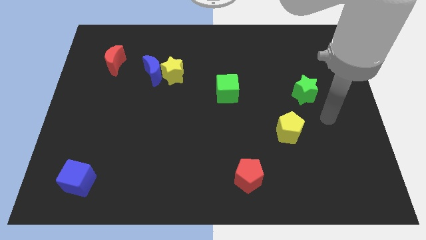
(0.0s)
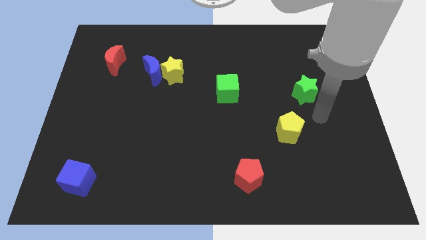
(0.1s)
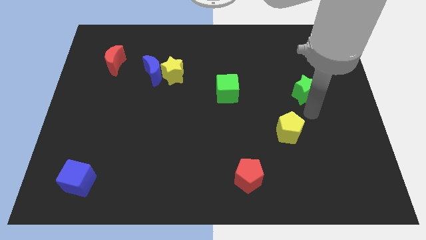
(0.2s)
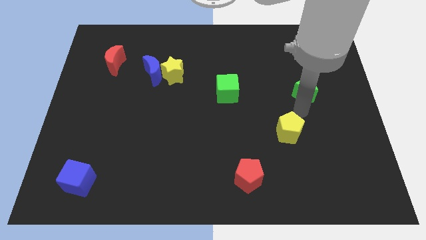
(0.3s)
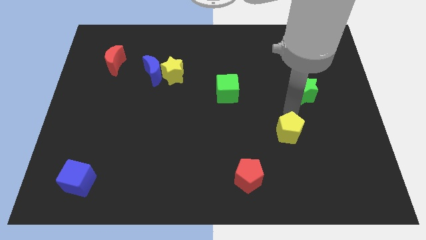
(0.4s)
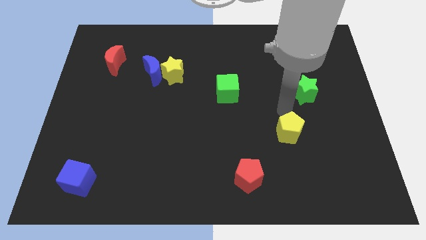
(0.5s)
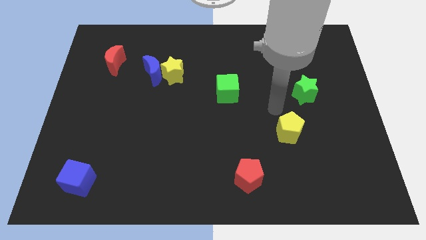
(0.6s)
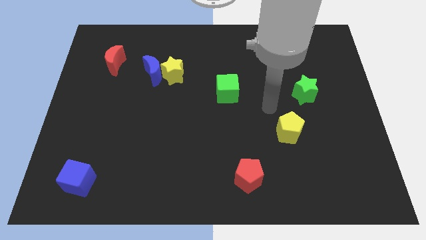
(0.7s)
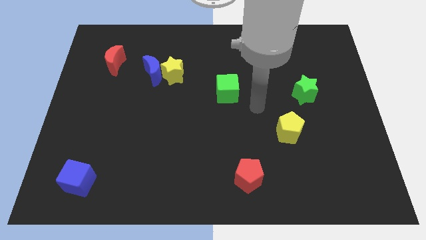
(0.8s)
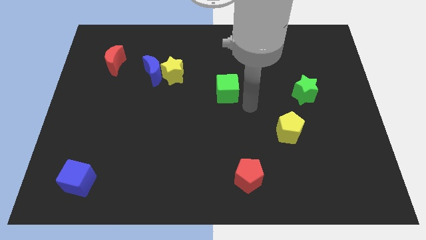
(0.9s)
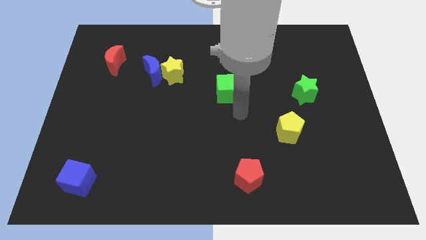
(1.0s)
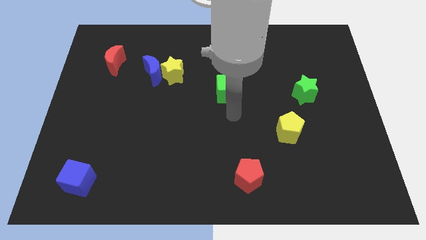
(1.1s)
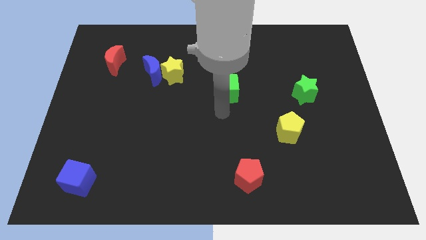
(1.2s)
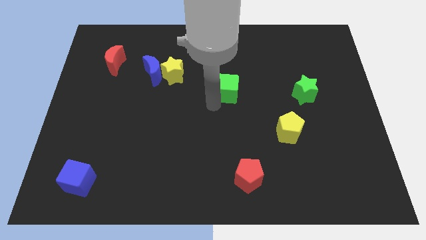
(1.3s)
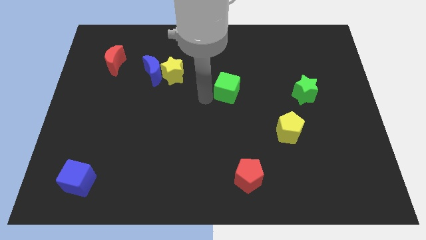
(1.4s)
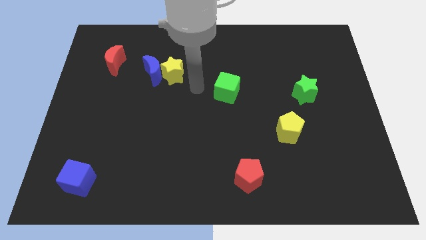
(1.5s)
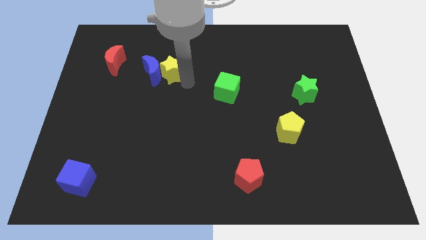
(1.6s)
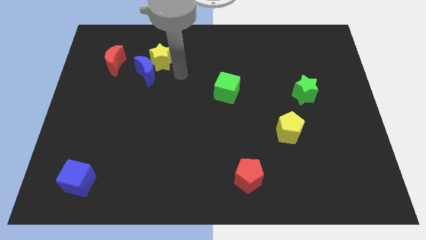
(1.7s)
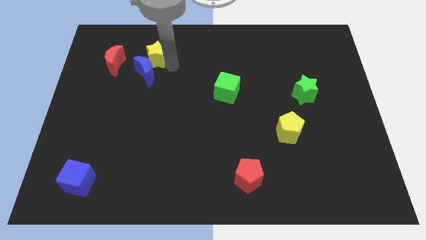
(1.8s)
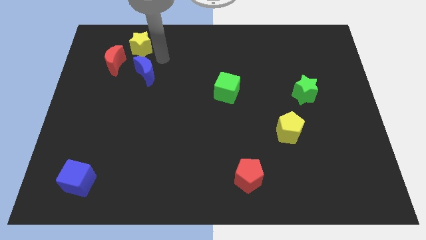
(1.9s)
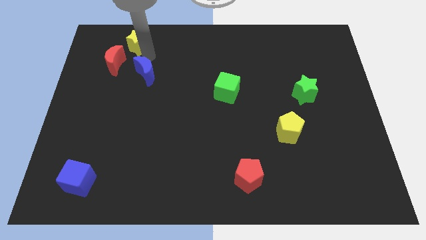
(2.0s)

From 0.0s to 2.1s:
move the blue moon away from the yellow star

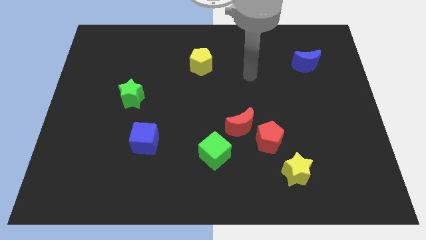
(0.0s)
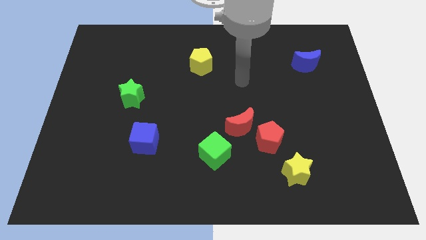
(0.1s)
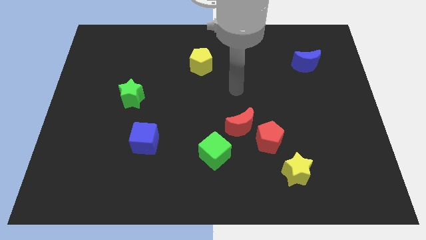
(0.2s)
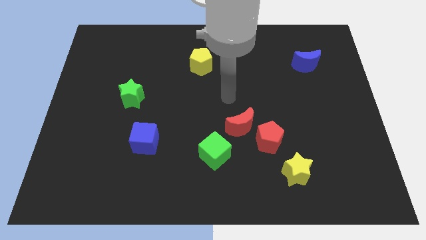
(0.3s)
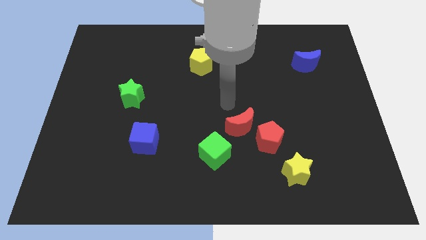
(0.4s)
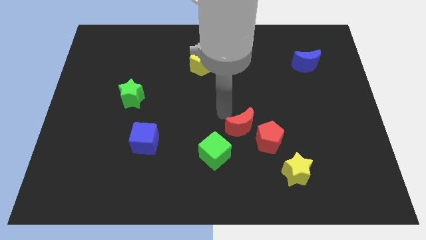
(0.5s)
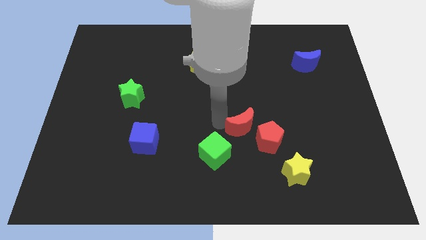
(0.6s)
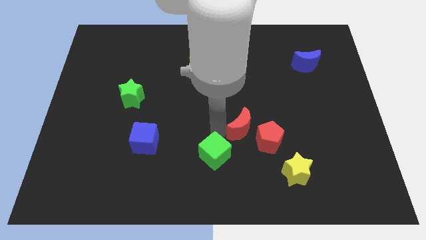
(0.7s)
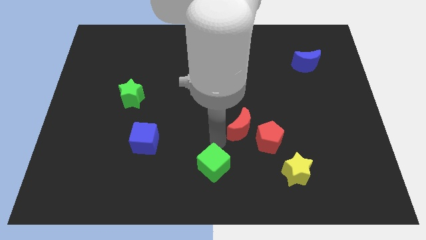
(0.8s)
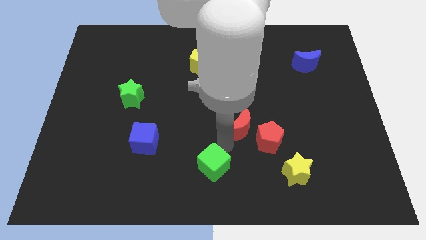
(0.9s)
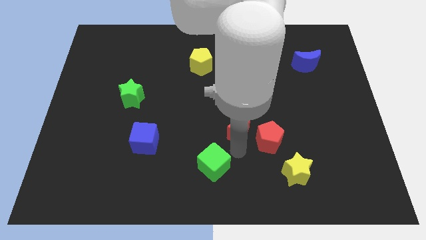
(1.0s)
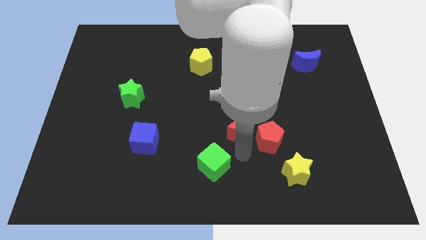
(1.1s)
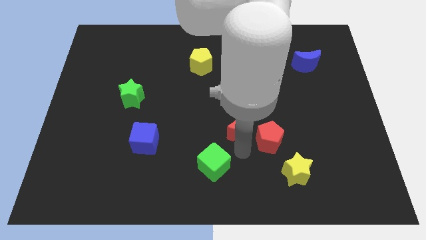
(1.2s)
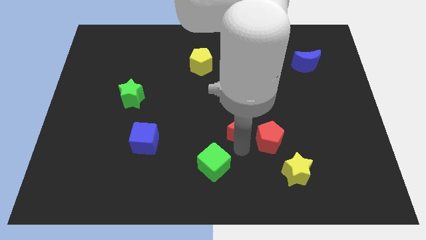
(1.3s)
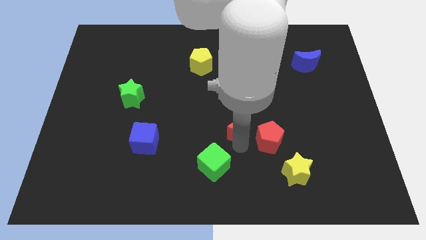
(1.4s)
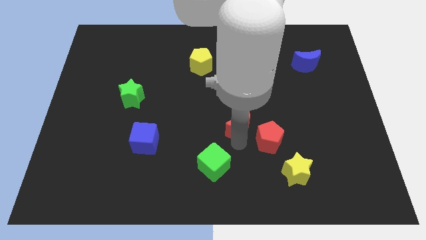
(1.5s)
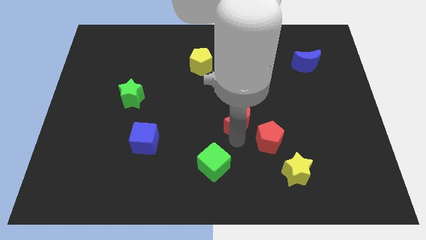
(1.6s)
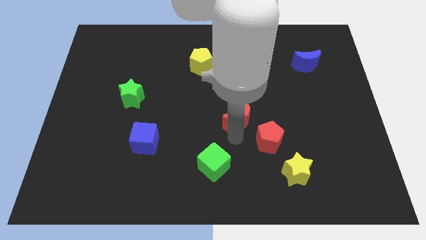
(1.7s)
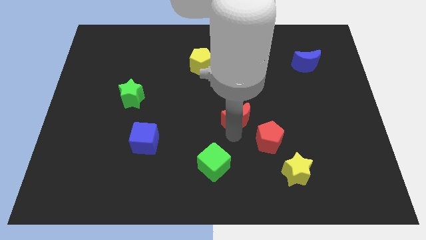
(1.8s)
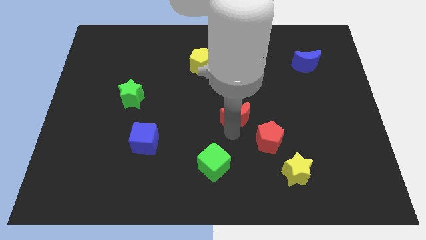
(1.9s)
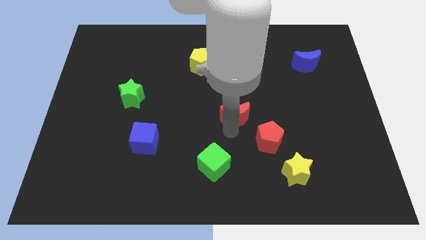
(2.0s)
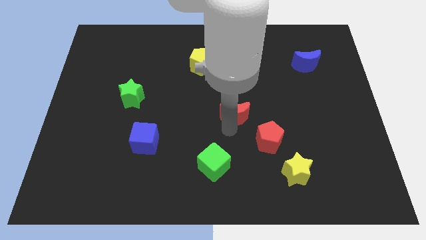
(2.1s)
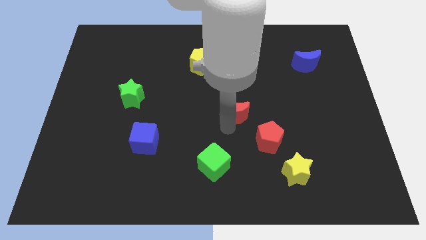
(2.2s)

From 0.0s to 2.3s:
pull the red moon apart from the red pentagon and green cube

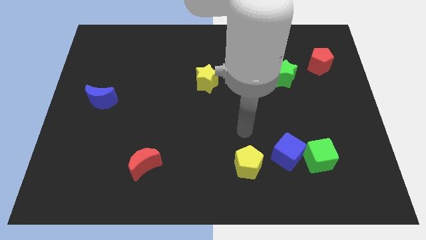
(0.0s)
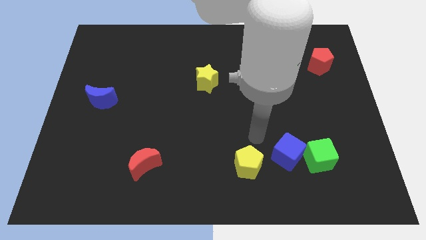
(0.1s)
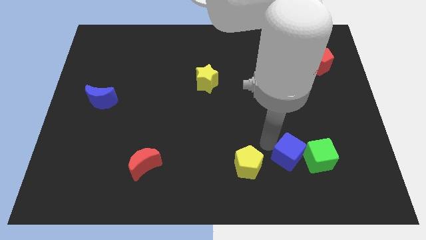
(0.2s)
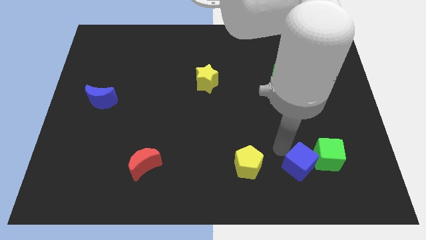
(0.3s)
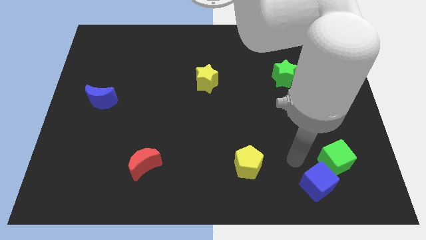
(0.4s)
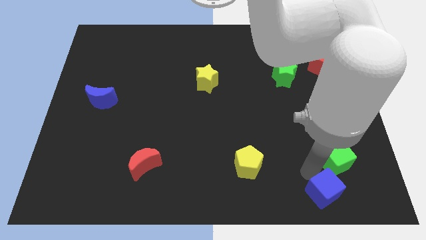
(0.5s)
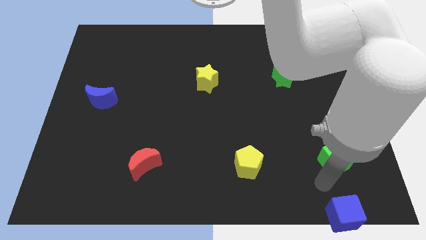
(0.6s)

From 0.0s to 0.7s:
move the green cube away from the blue cube

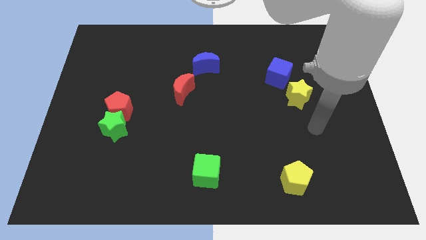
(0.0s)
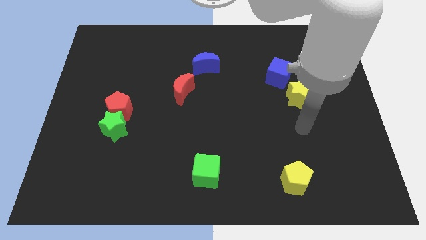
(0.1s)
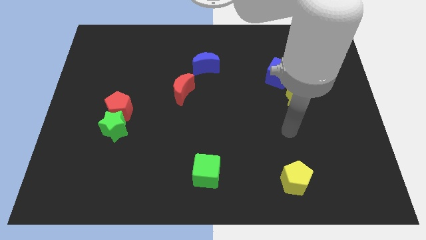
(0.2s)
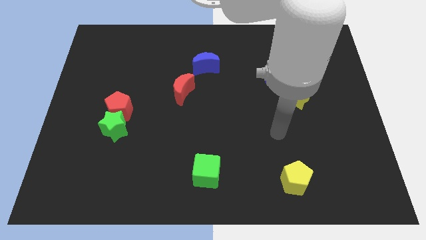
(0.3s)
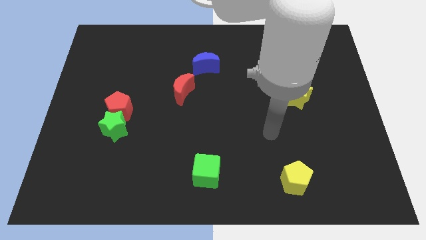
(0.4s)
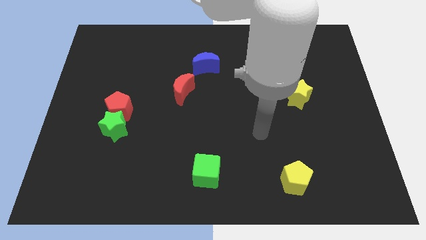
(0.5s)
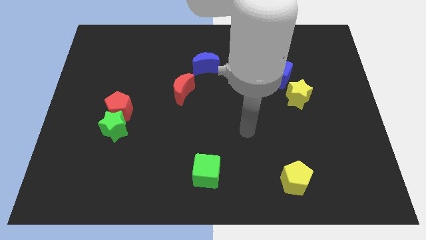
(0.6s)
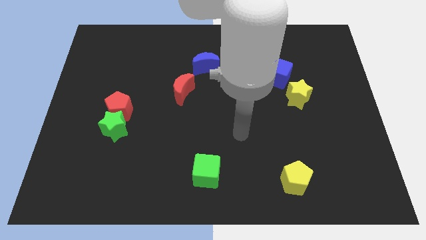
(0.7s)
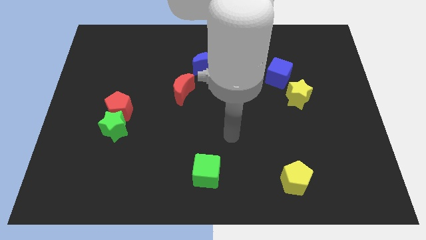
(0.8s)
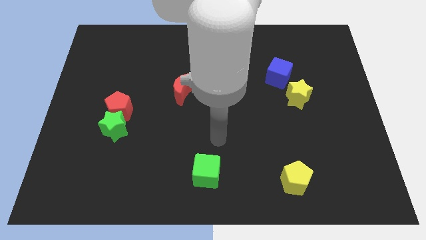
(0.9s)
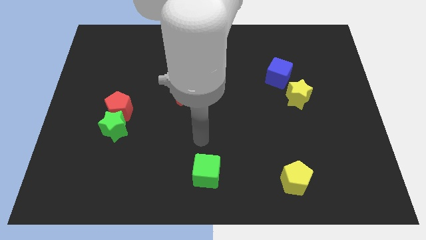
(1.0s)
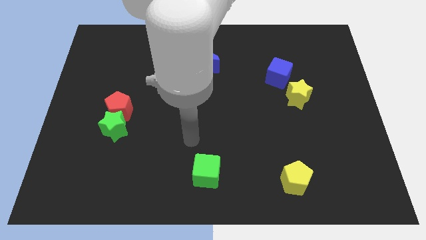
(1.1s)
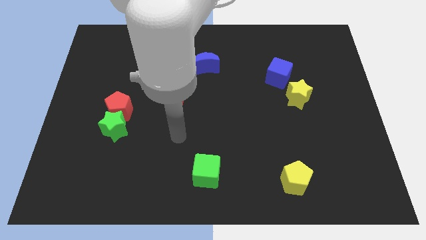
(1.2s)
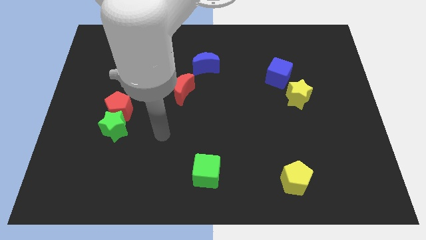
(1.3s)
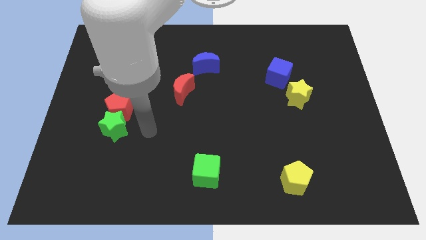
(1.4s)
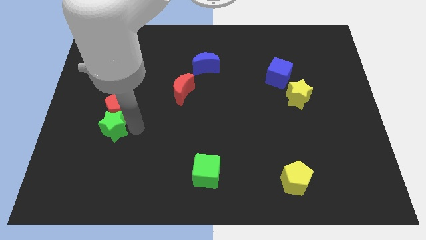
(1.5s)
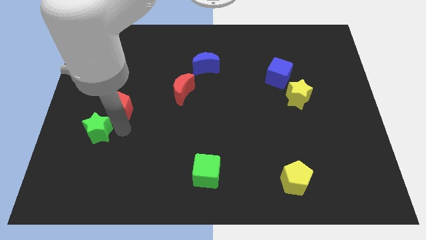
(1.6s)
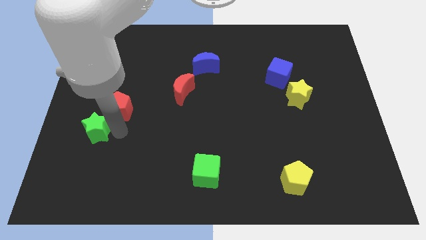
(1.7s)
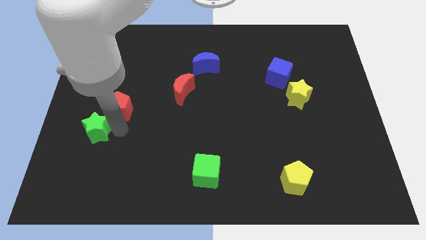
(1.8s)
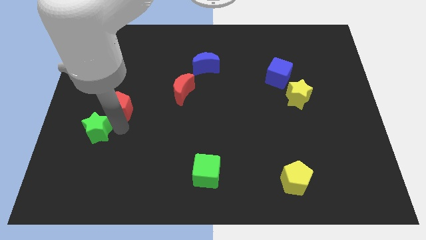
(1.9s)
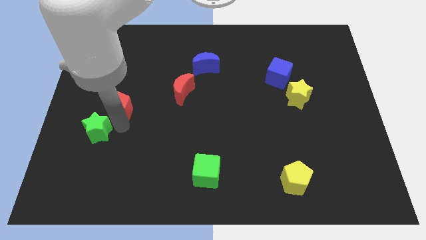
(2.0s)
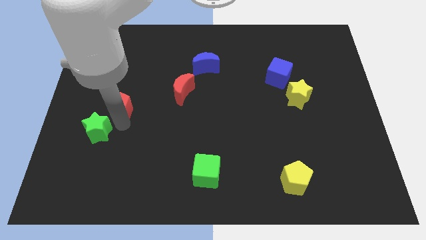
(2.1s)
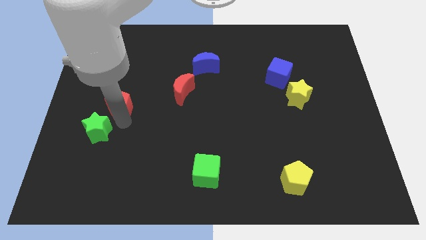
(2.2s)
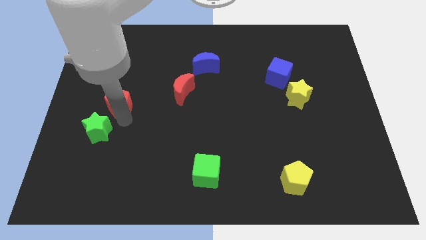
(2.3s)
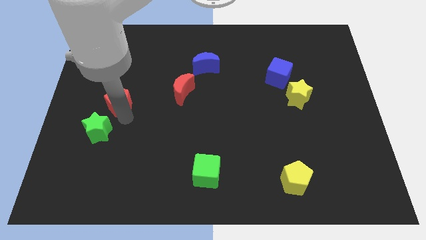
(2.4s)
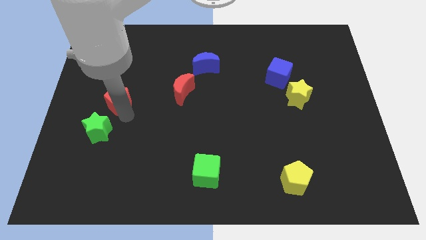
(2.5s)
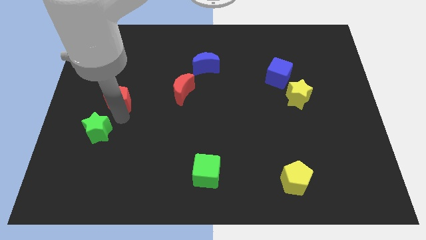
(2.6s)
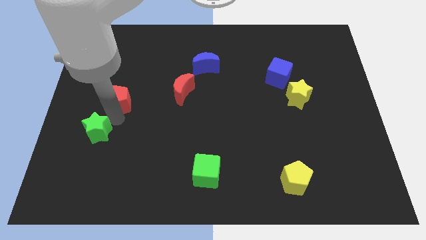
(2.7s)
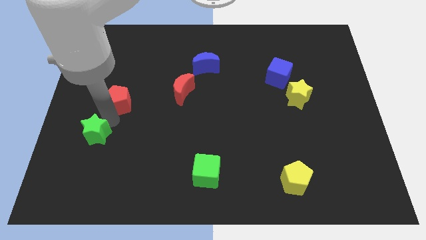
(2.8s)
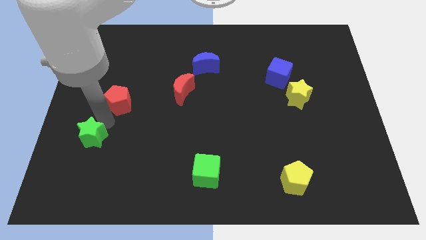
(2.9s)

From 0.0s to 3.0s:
separate the red pentagon from the green star

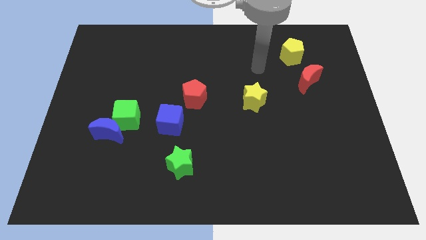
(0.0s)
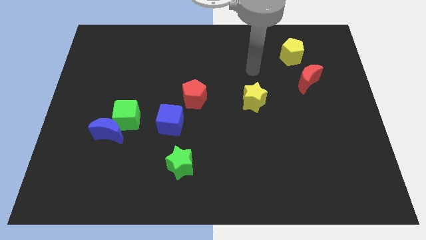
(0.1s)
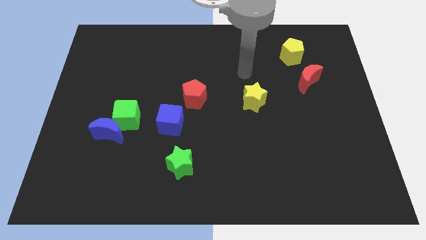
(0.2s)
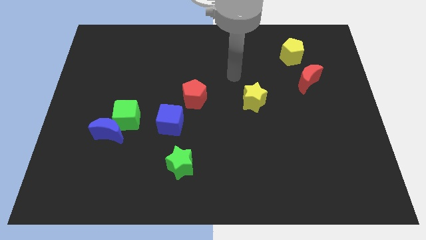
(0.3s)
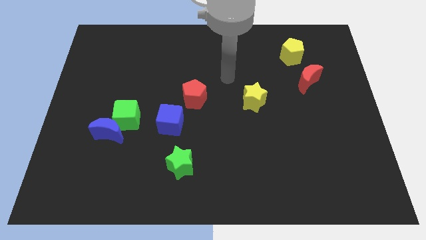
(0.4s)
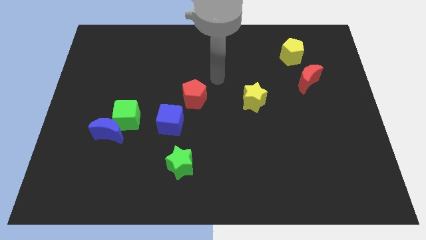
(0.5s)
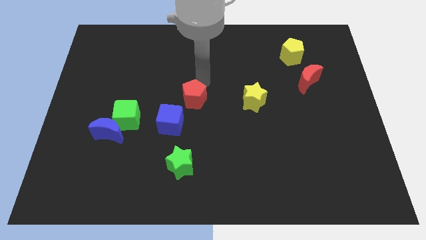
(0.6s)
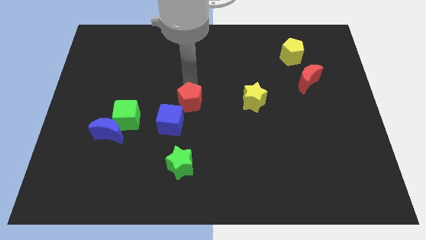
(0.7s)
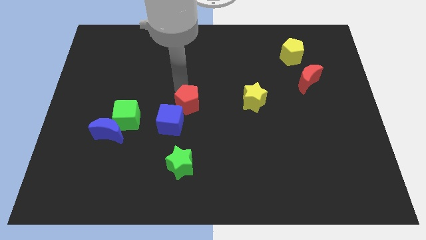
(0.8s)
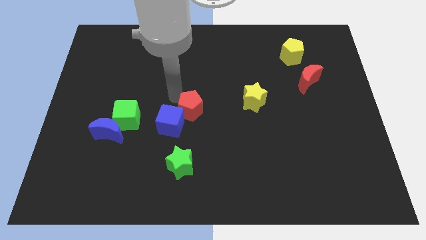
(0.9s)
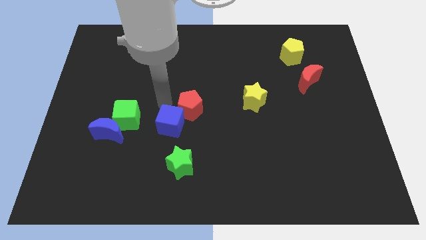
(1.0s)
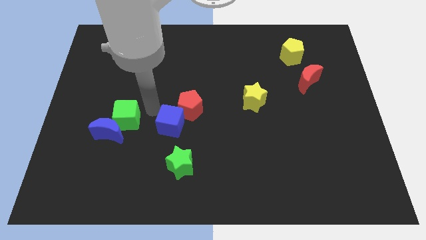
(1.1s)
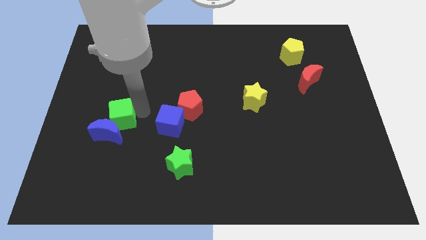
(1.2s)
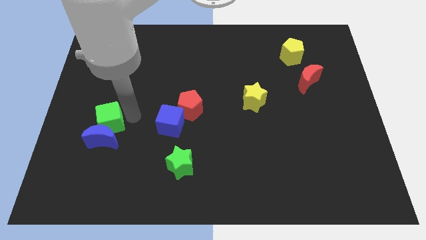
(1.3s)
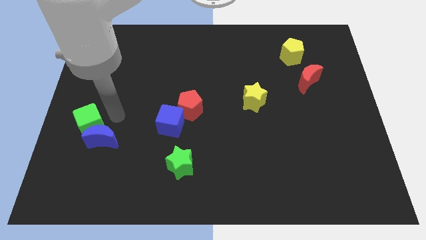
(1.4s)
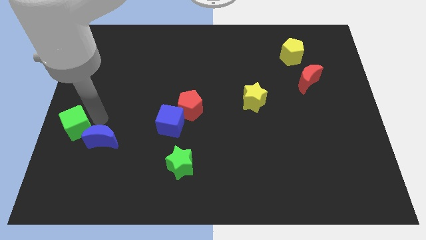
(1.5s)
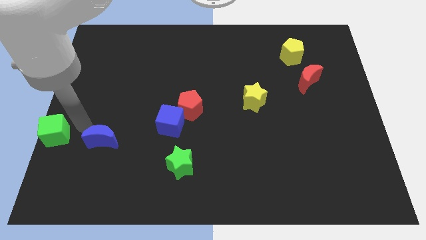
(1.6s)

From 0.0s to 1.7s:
move the blue moon away from the green cube
